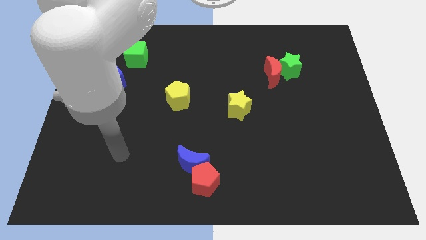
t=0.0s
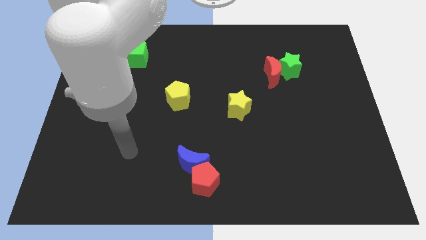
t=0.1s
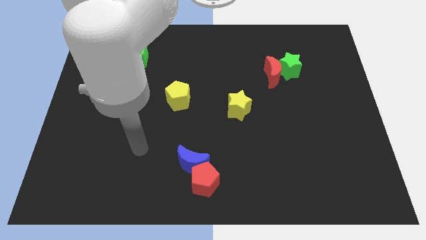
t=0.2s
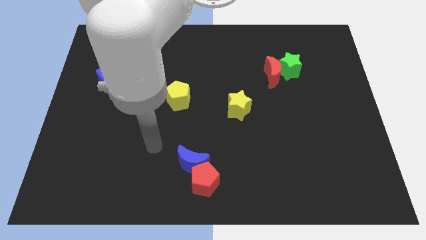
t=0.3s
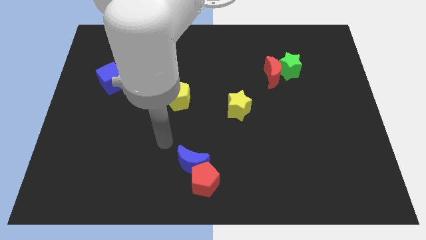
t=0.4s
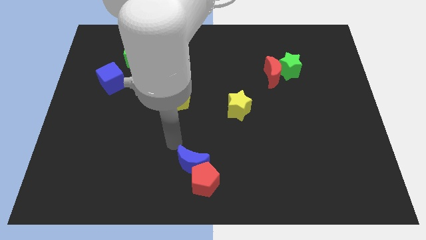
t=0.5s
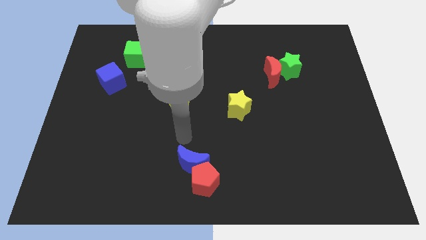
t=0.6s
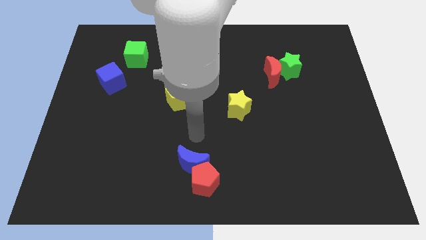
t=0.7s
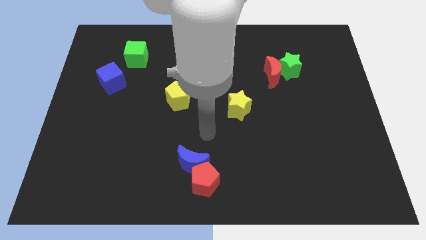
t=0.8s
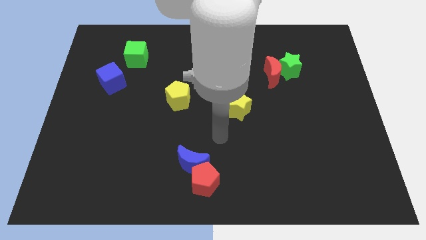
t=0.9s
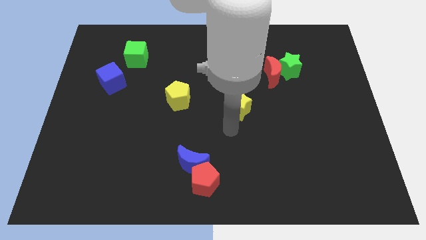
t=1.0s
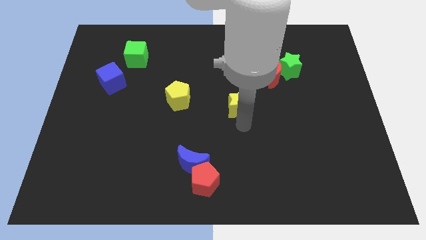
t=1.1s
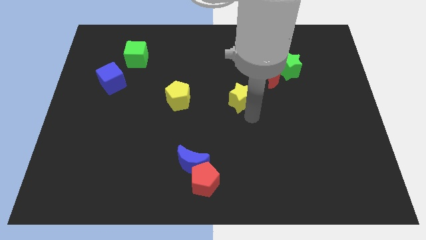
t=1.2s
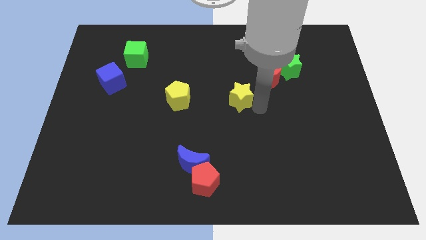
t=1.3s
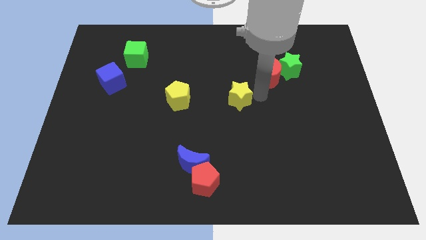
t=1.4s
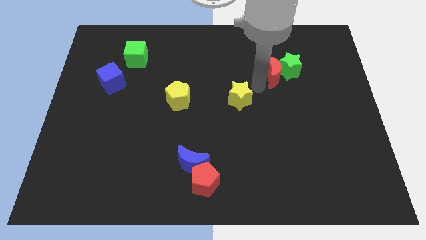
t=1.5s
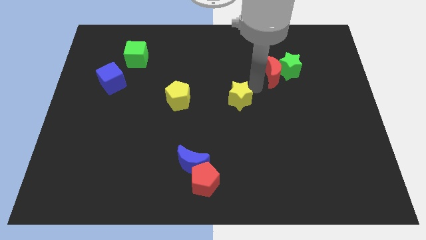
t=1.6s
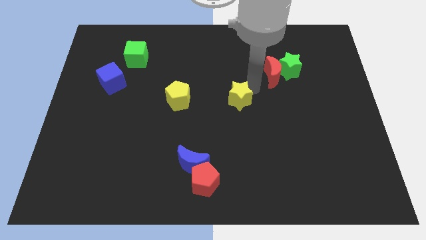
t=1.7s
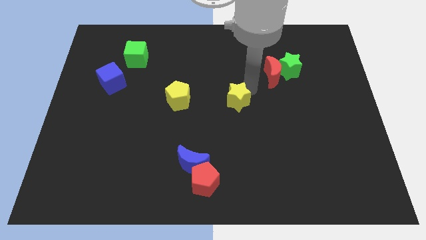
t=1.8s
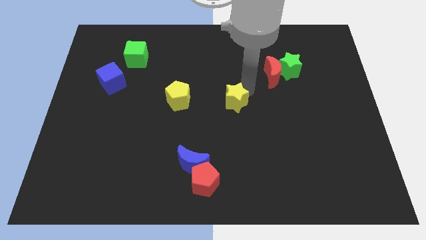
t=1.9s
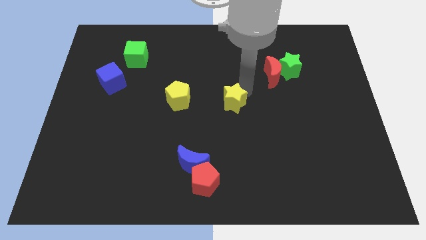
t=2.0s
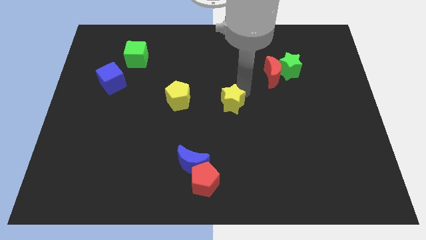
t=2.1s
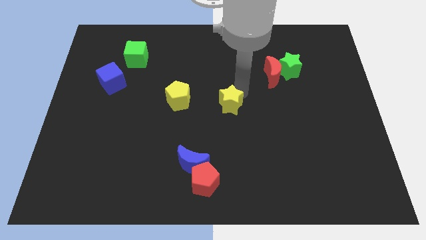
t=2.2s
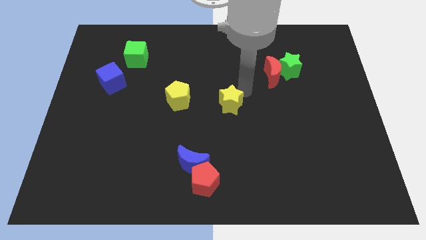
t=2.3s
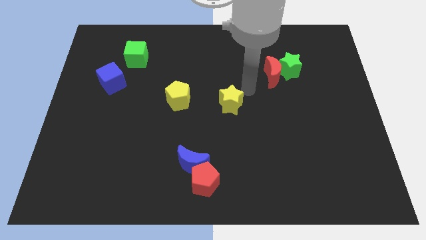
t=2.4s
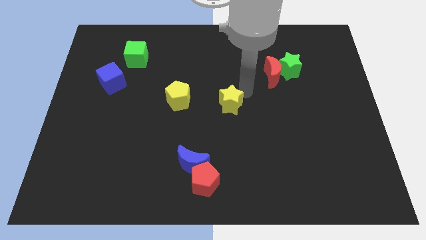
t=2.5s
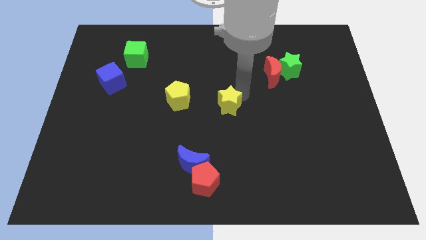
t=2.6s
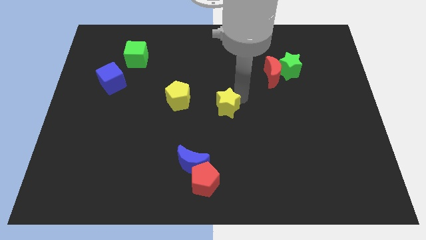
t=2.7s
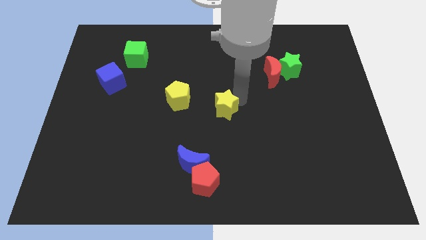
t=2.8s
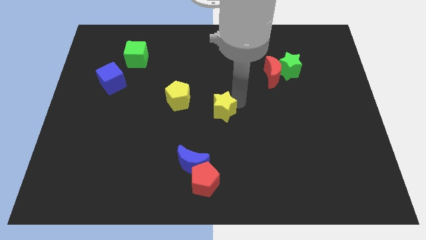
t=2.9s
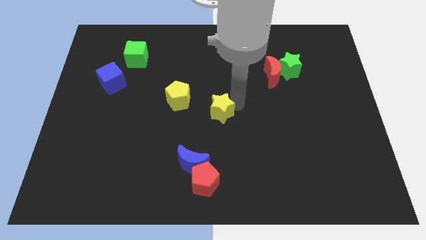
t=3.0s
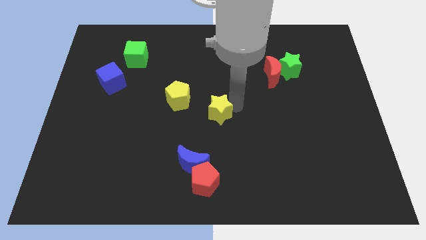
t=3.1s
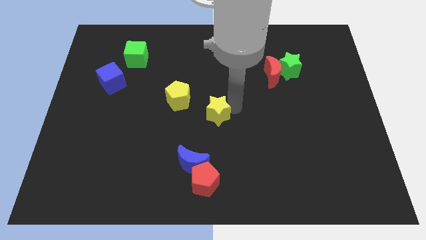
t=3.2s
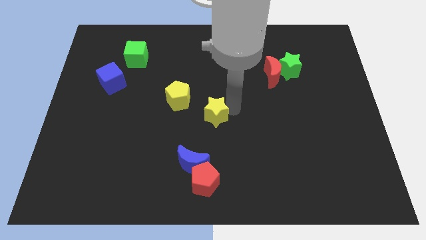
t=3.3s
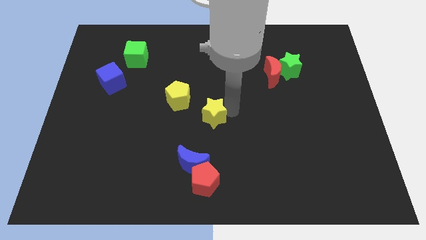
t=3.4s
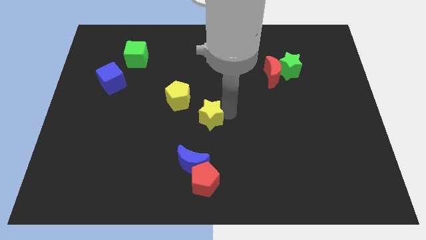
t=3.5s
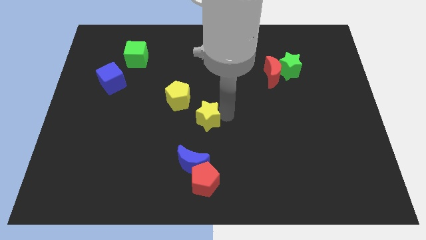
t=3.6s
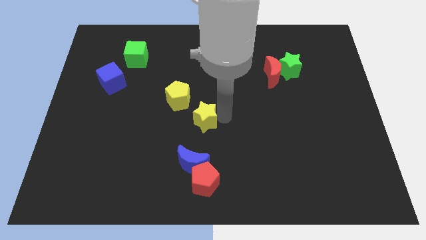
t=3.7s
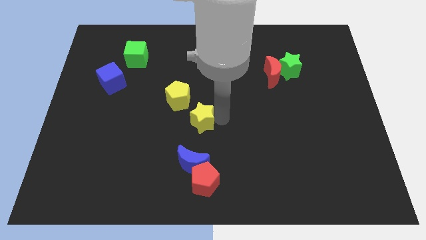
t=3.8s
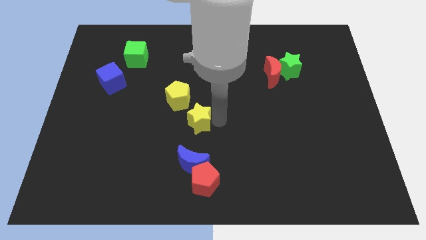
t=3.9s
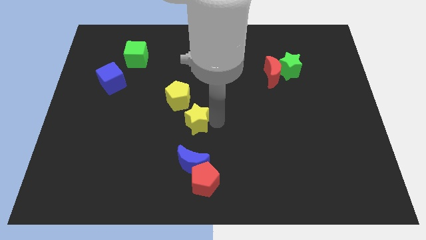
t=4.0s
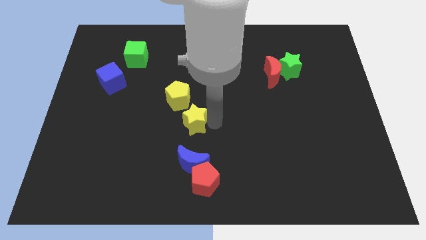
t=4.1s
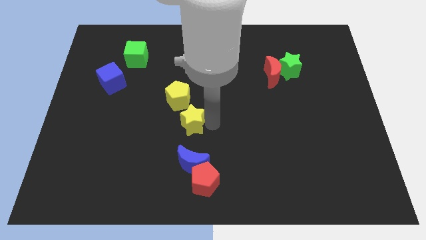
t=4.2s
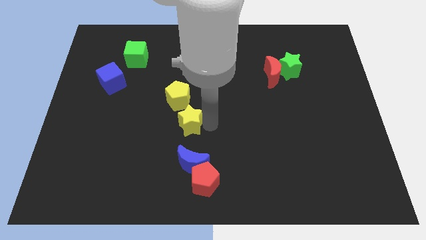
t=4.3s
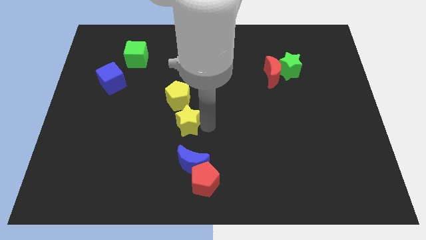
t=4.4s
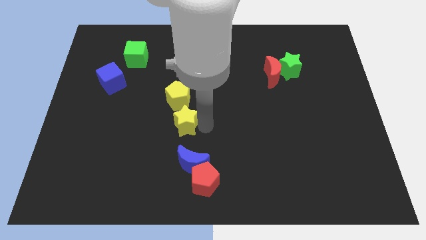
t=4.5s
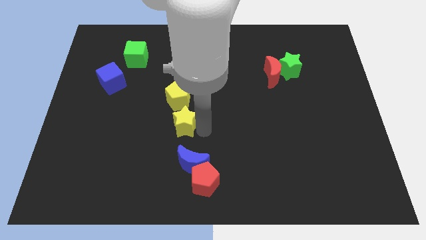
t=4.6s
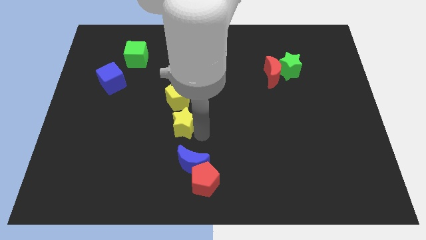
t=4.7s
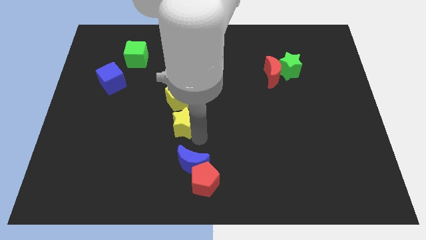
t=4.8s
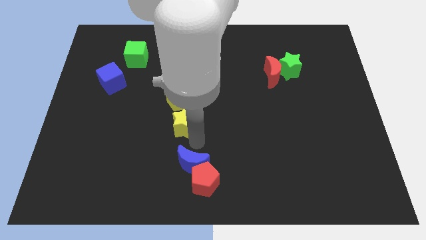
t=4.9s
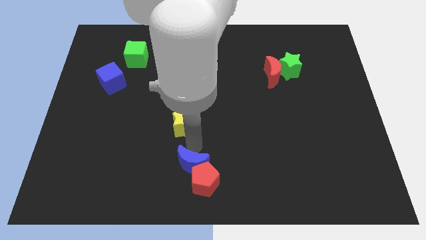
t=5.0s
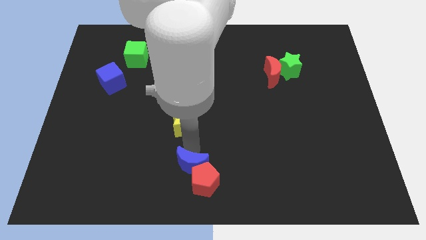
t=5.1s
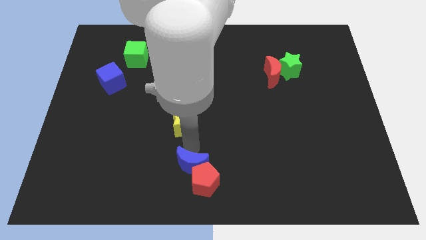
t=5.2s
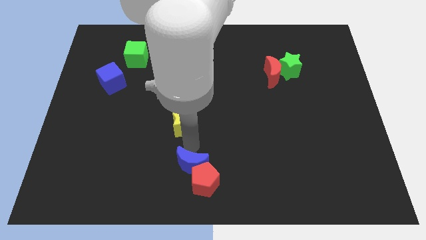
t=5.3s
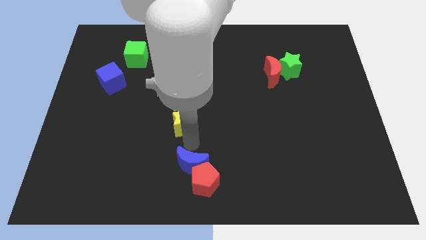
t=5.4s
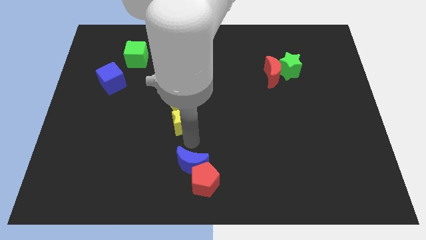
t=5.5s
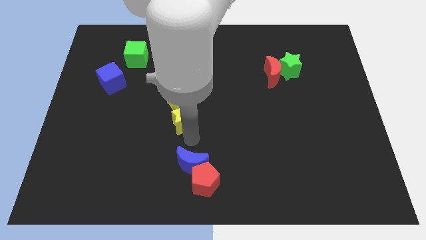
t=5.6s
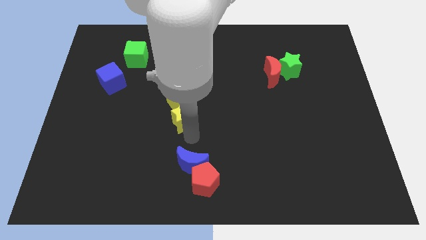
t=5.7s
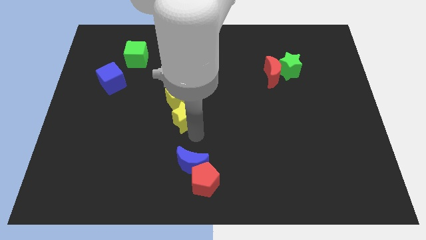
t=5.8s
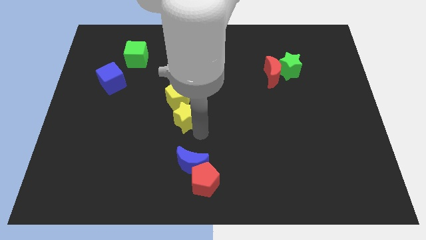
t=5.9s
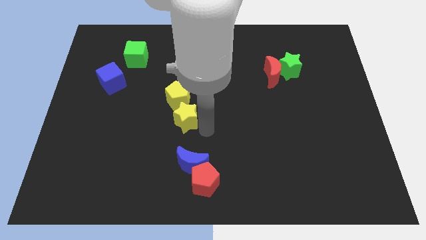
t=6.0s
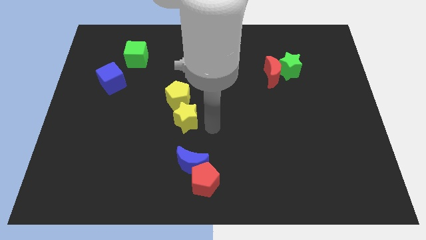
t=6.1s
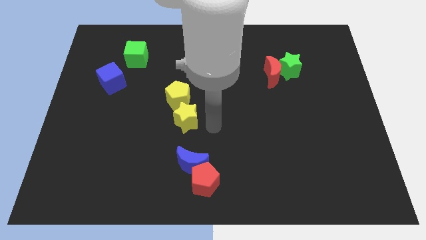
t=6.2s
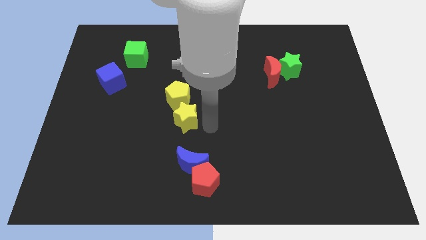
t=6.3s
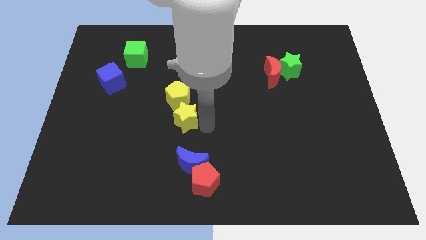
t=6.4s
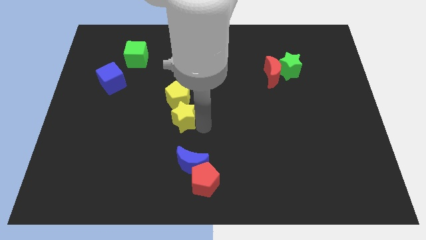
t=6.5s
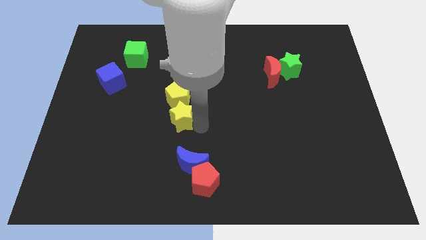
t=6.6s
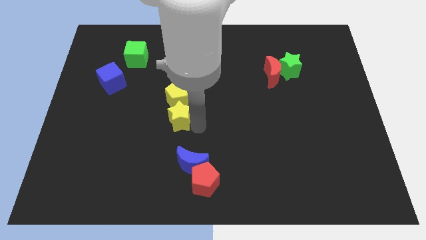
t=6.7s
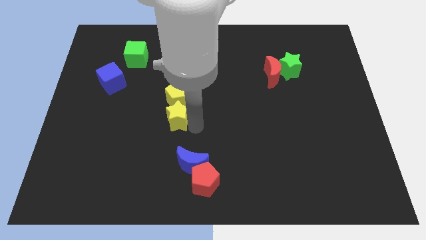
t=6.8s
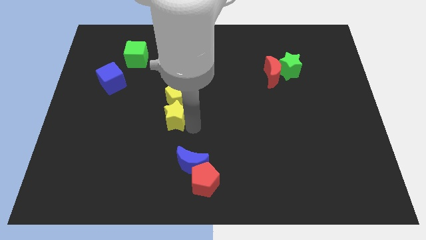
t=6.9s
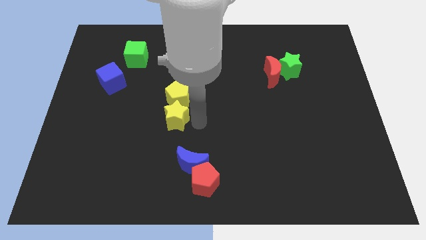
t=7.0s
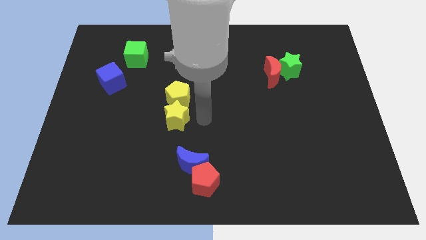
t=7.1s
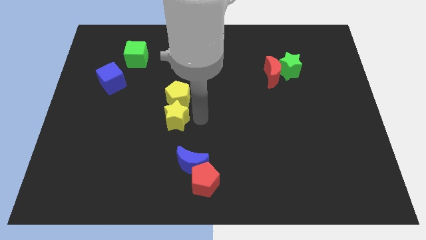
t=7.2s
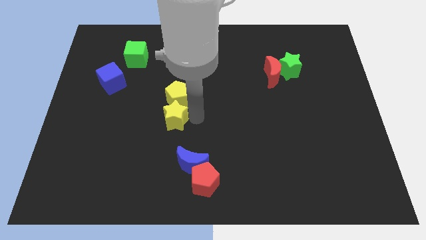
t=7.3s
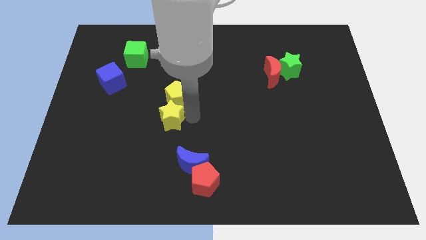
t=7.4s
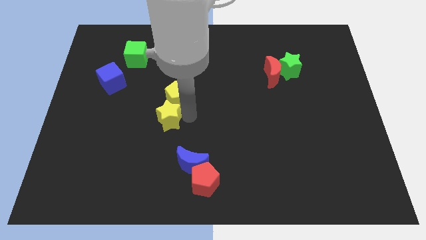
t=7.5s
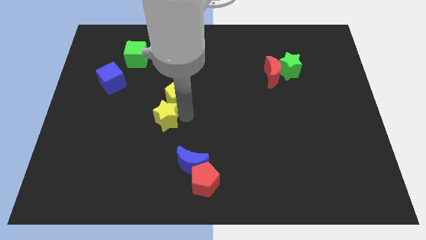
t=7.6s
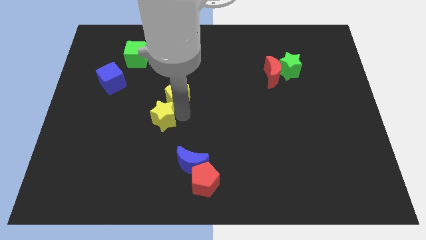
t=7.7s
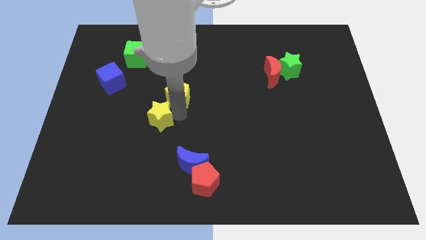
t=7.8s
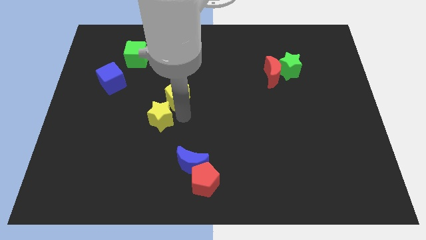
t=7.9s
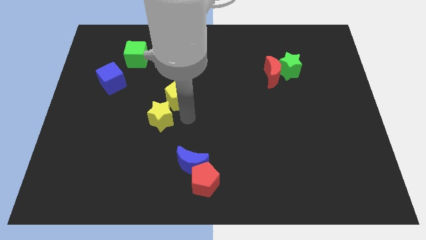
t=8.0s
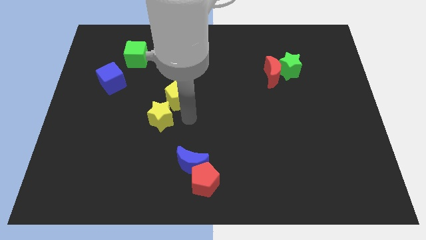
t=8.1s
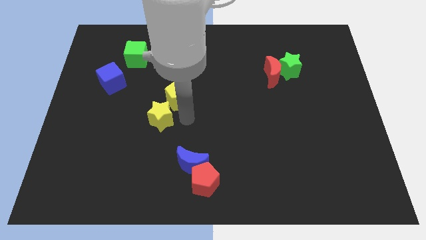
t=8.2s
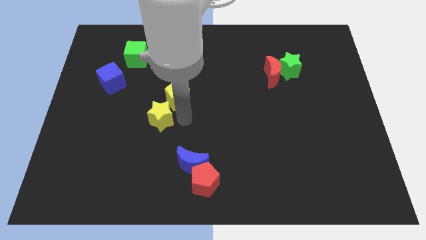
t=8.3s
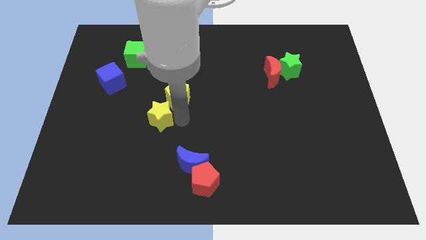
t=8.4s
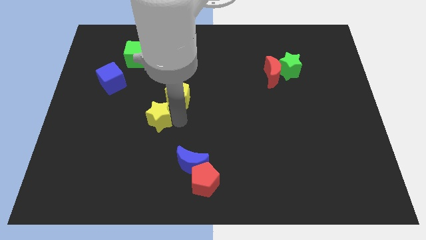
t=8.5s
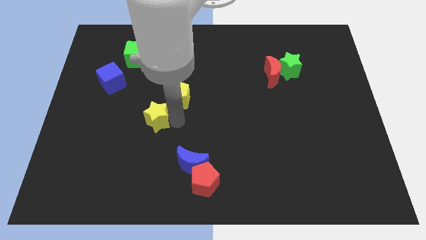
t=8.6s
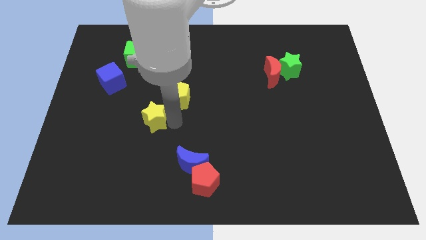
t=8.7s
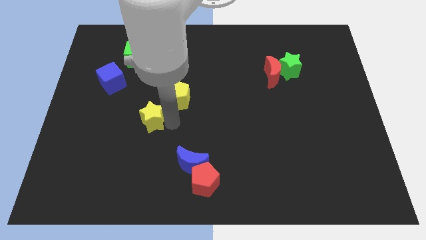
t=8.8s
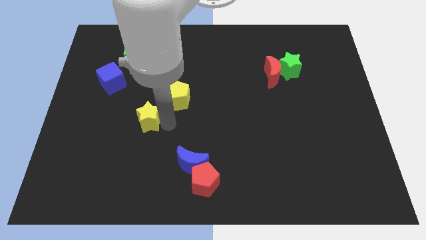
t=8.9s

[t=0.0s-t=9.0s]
slide the yellow star left
